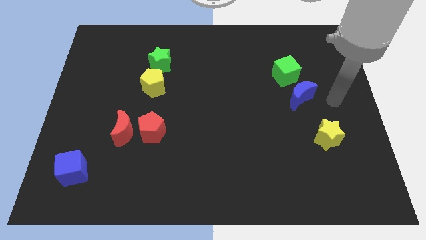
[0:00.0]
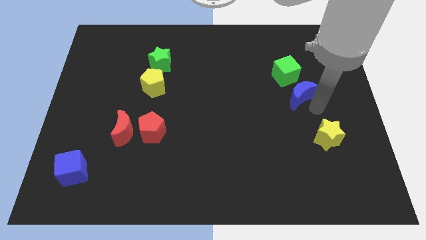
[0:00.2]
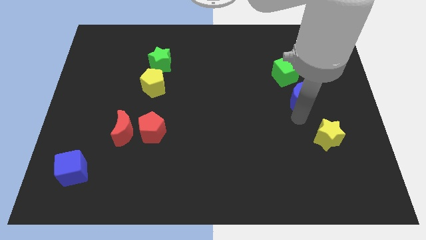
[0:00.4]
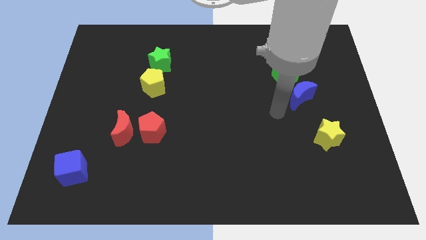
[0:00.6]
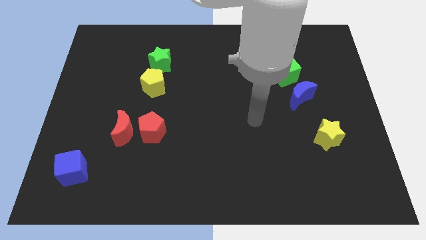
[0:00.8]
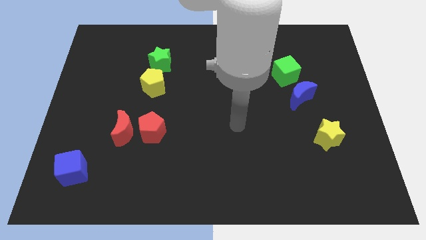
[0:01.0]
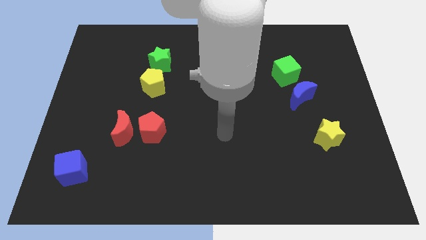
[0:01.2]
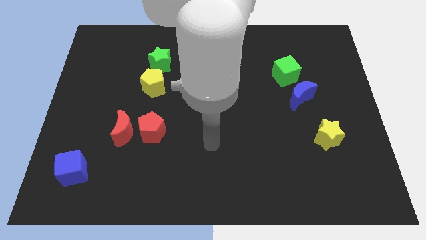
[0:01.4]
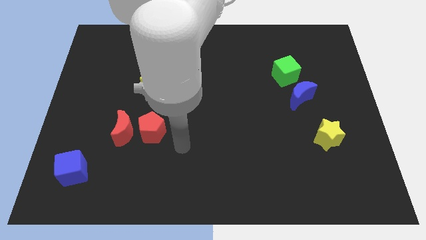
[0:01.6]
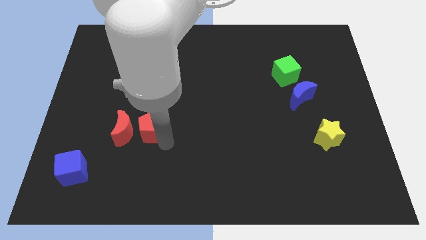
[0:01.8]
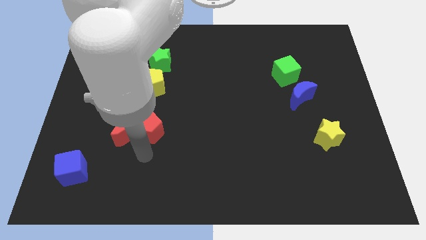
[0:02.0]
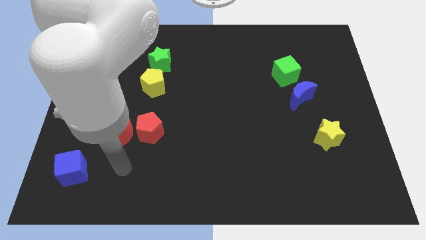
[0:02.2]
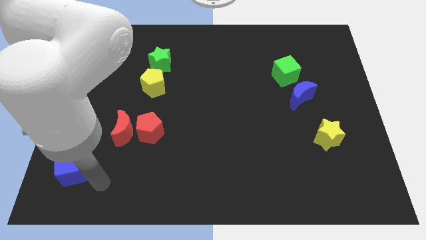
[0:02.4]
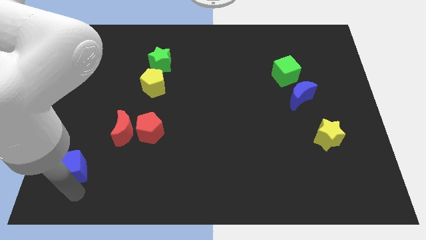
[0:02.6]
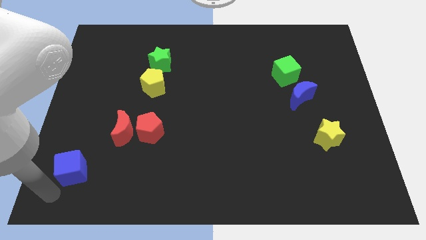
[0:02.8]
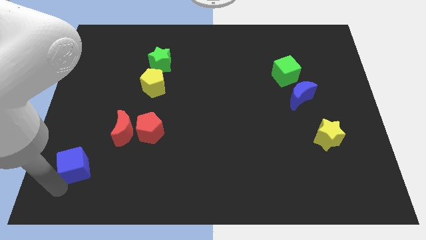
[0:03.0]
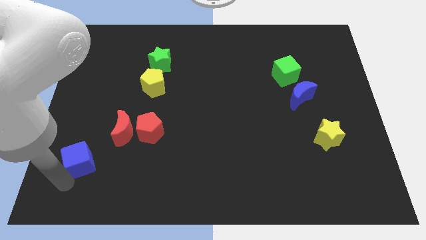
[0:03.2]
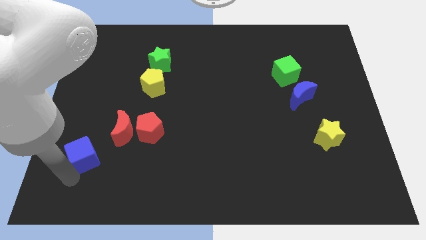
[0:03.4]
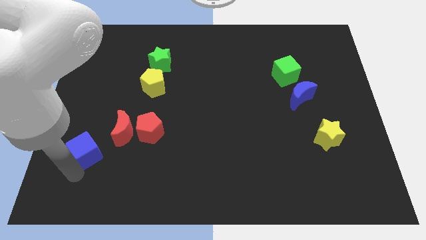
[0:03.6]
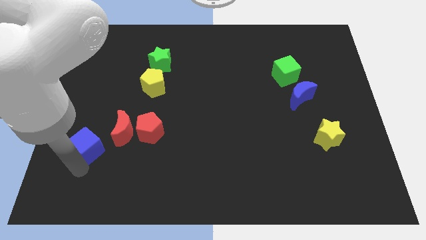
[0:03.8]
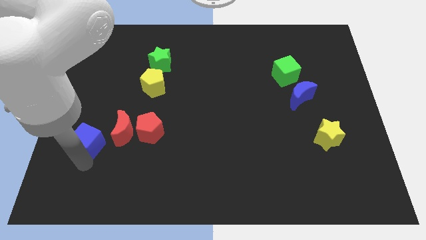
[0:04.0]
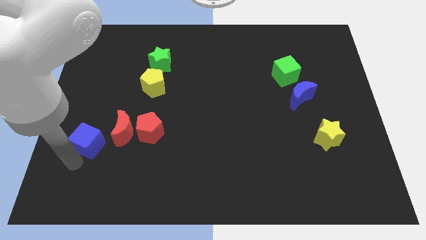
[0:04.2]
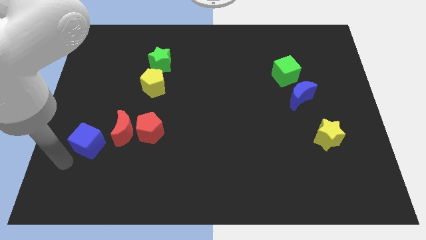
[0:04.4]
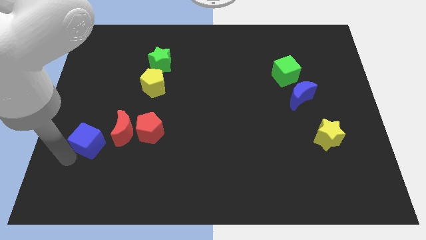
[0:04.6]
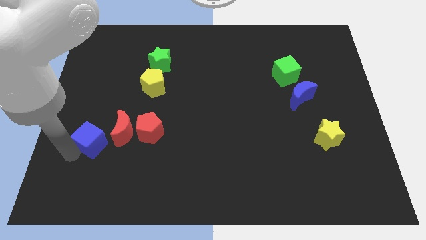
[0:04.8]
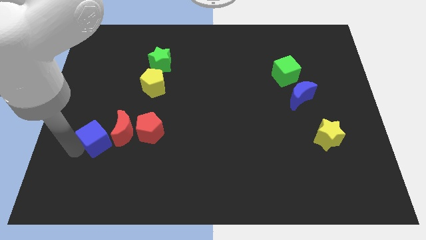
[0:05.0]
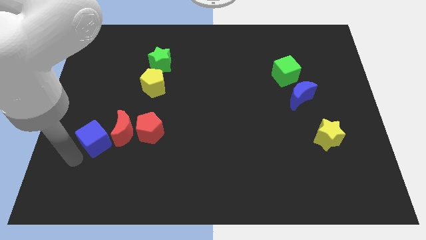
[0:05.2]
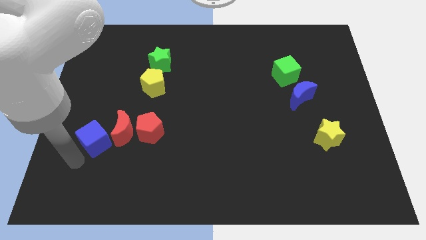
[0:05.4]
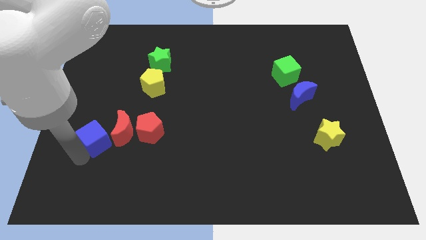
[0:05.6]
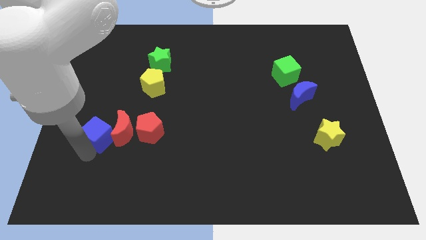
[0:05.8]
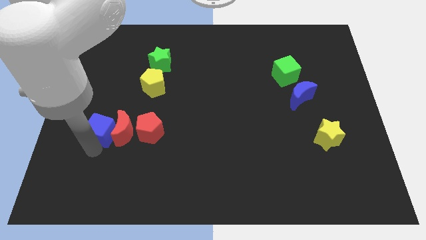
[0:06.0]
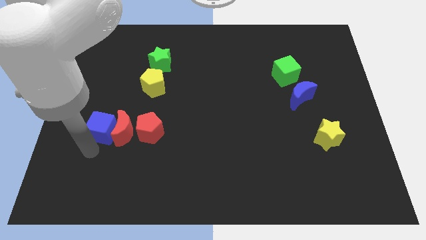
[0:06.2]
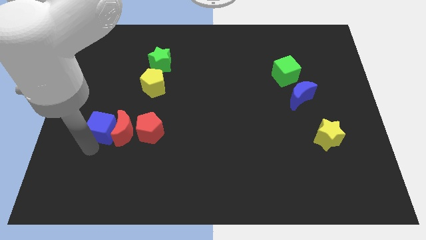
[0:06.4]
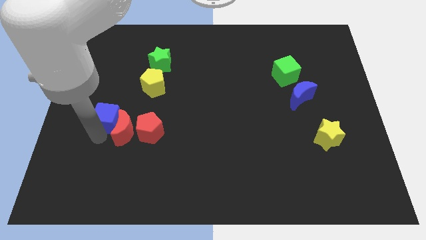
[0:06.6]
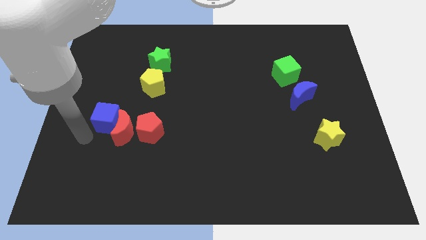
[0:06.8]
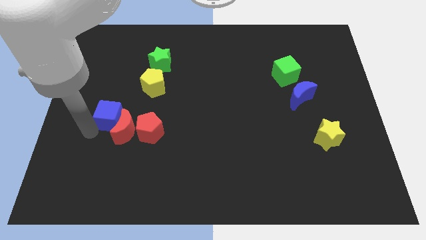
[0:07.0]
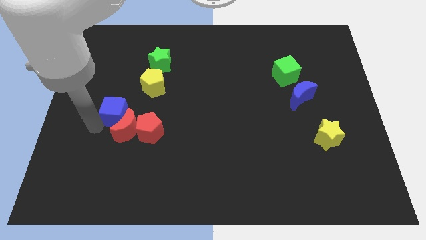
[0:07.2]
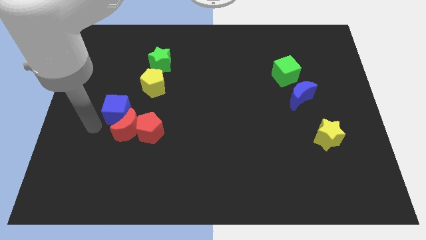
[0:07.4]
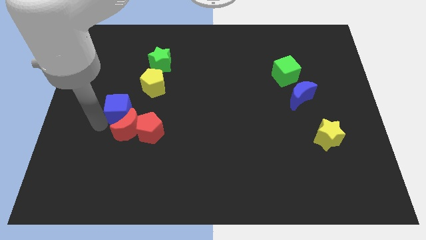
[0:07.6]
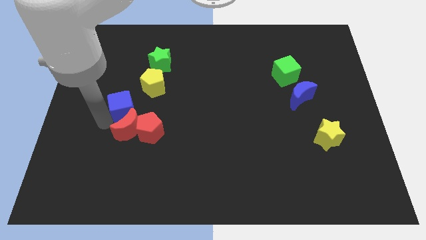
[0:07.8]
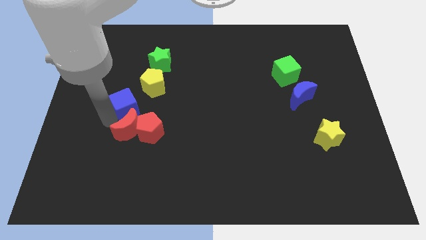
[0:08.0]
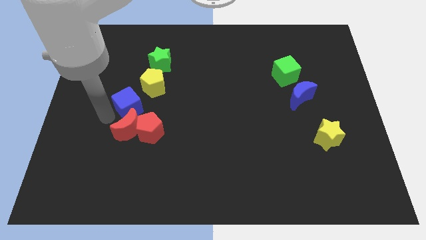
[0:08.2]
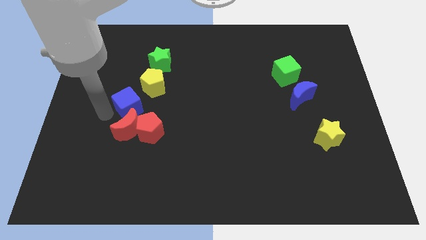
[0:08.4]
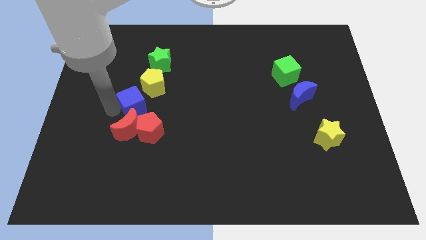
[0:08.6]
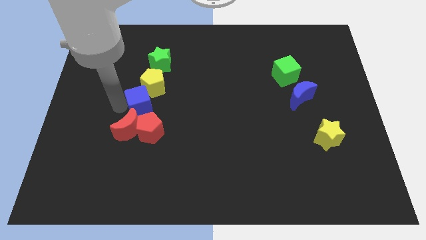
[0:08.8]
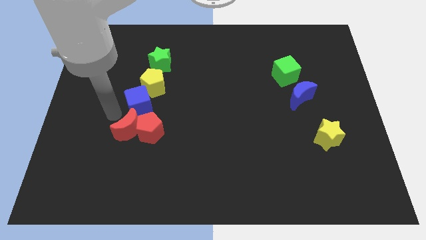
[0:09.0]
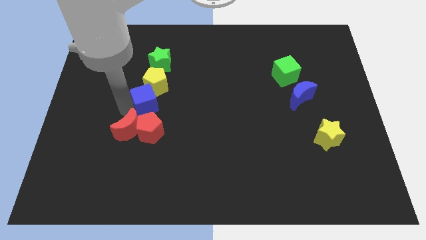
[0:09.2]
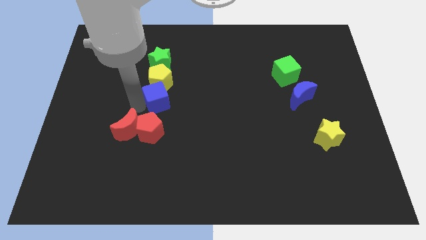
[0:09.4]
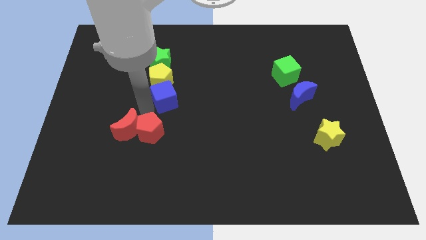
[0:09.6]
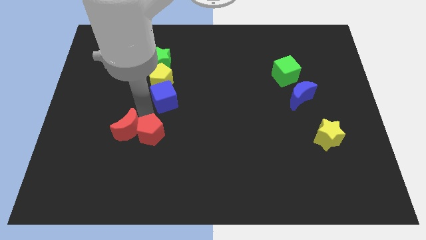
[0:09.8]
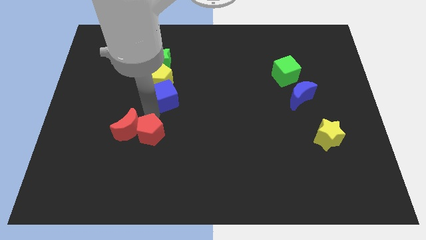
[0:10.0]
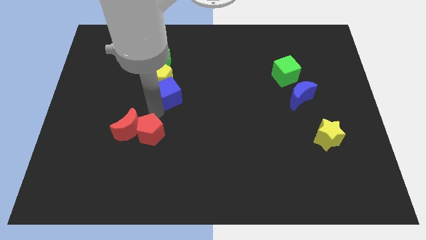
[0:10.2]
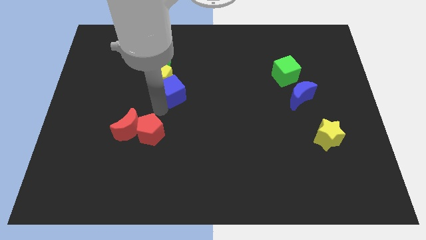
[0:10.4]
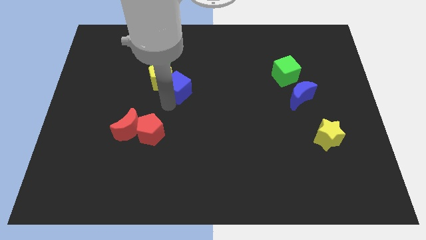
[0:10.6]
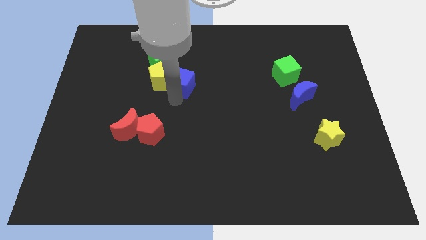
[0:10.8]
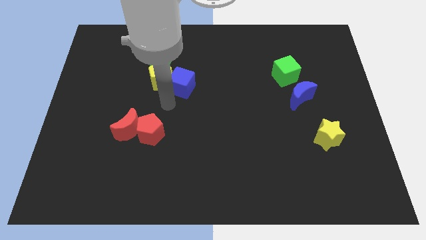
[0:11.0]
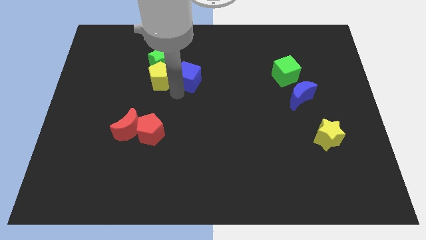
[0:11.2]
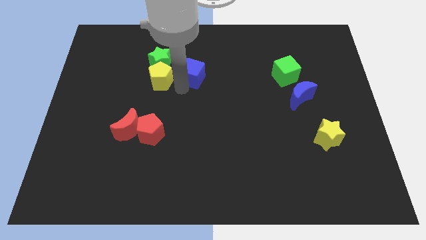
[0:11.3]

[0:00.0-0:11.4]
put the blue cube to the right of the green star

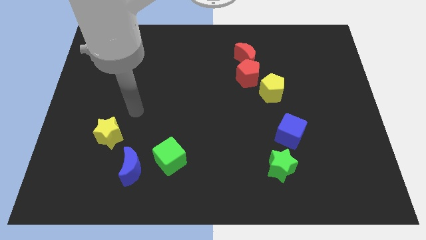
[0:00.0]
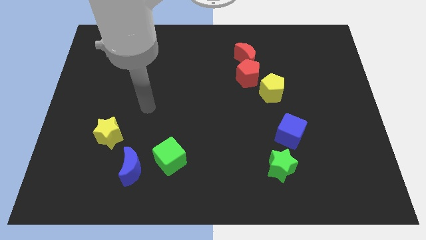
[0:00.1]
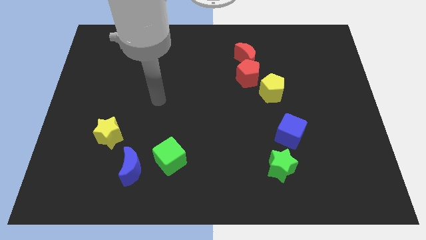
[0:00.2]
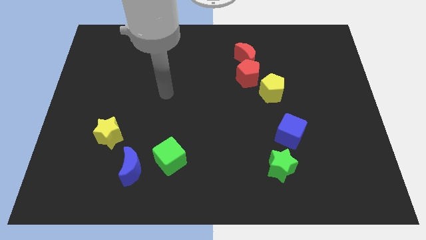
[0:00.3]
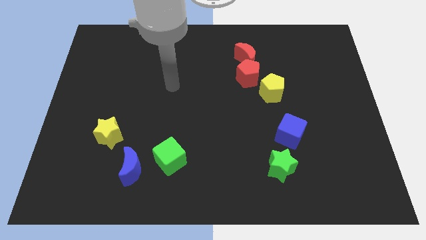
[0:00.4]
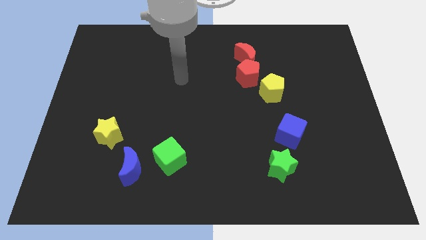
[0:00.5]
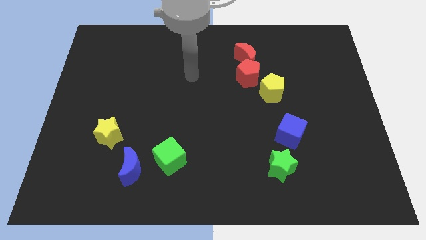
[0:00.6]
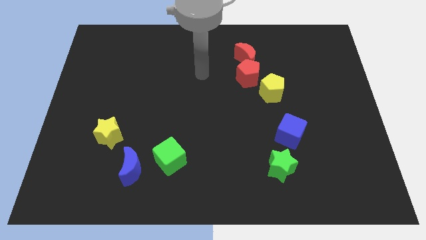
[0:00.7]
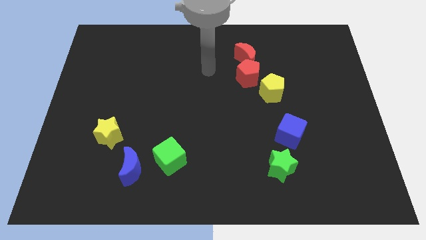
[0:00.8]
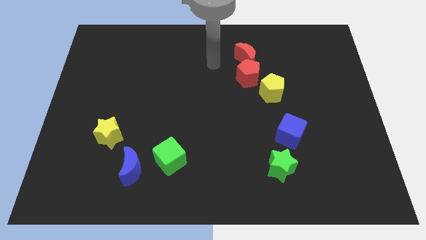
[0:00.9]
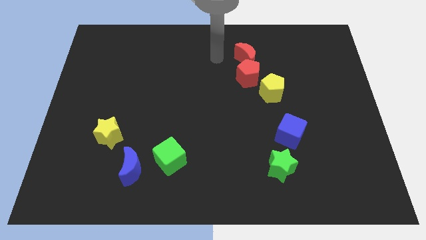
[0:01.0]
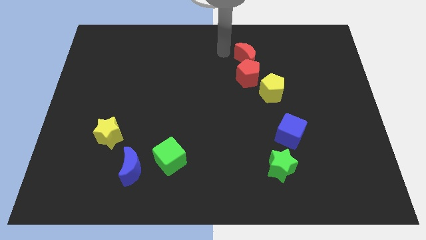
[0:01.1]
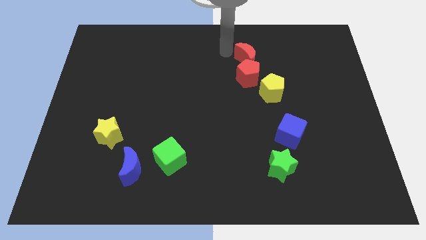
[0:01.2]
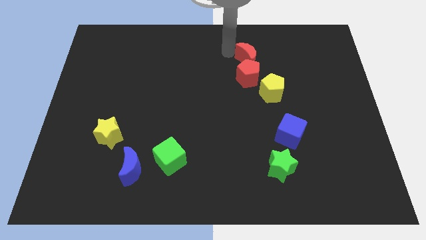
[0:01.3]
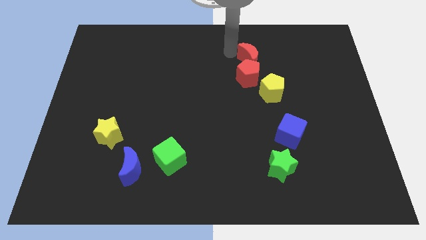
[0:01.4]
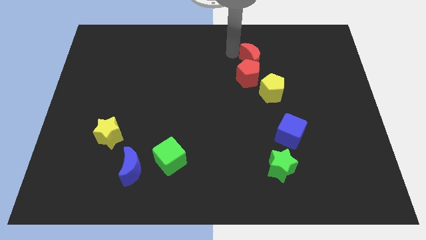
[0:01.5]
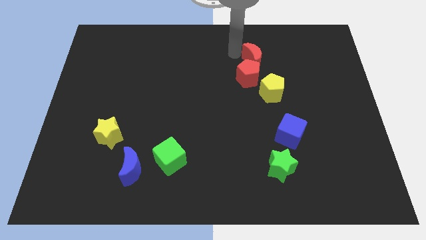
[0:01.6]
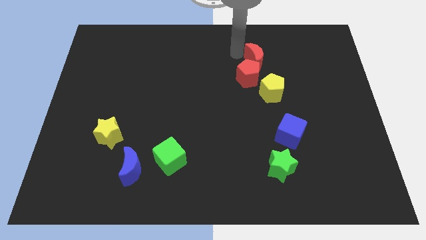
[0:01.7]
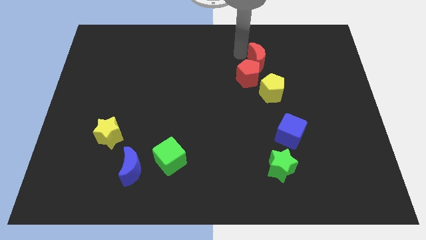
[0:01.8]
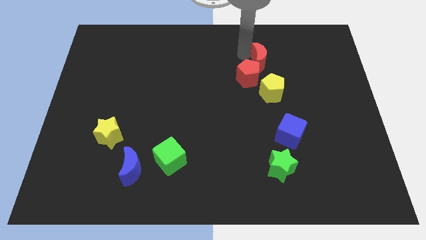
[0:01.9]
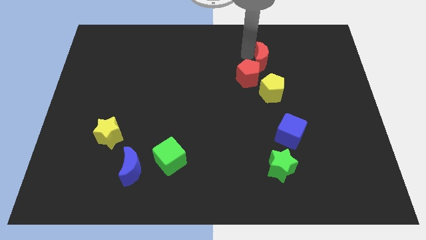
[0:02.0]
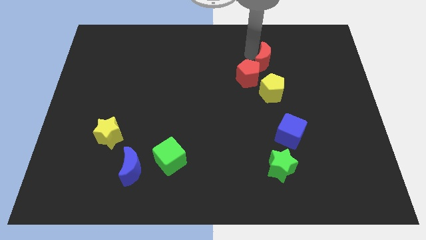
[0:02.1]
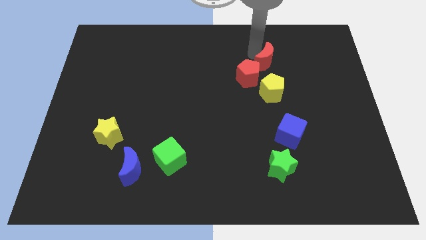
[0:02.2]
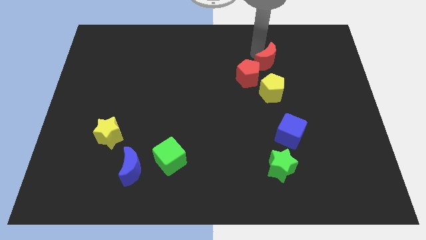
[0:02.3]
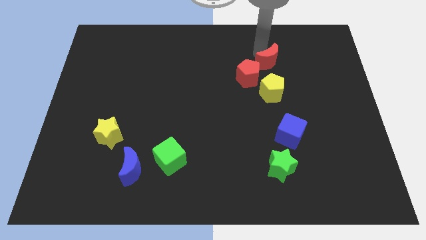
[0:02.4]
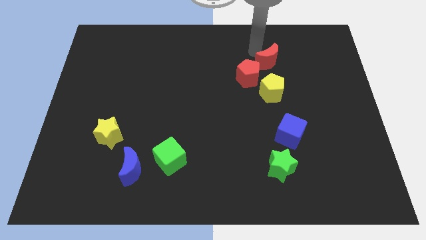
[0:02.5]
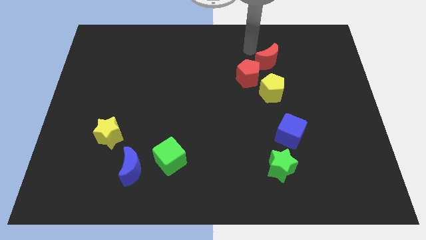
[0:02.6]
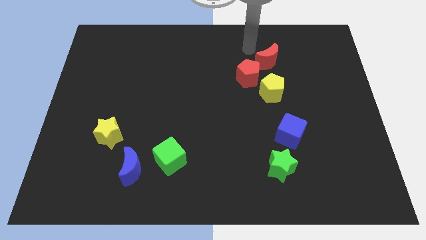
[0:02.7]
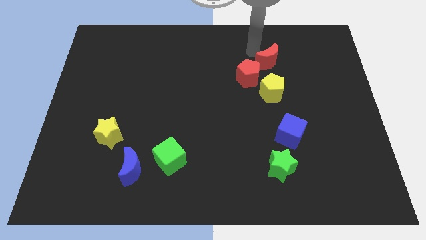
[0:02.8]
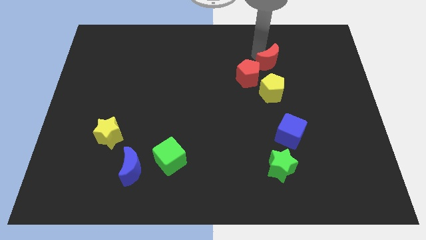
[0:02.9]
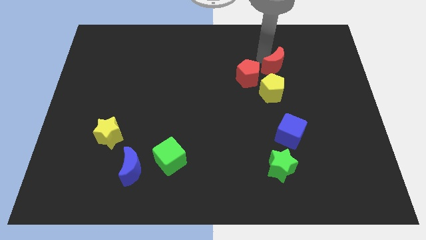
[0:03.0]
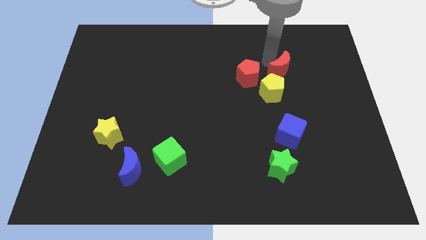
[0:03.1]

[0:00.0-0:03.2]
move the red moon to the top right side of the yellow pentagon
